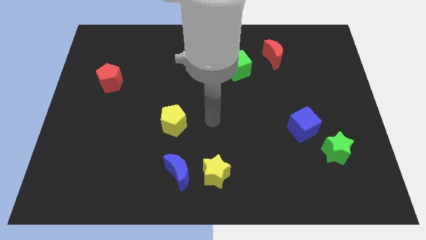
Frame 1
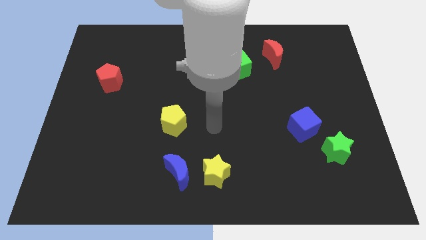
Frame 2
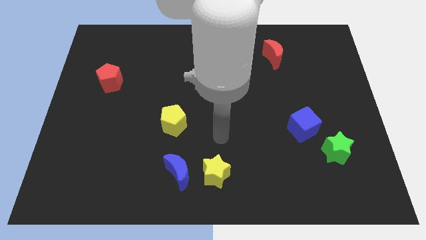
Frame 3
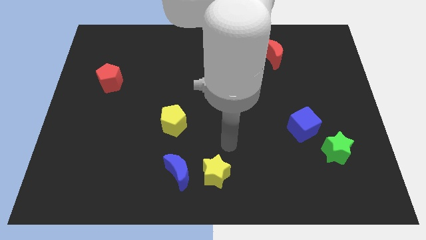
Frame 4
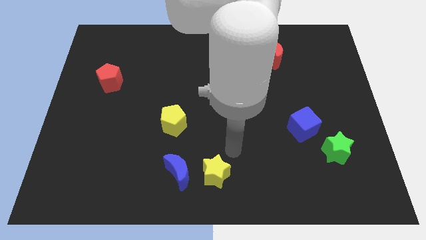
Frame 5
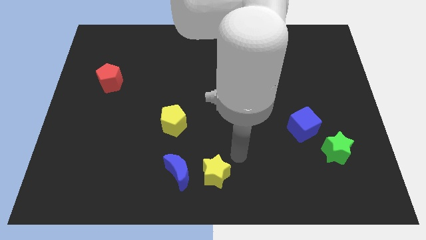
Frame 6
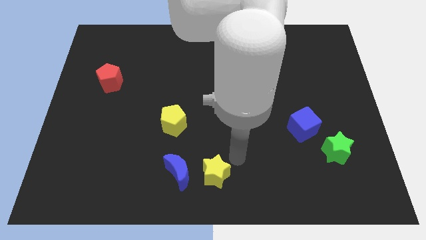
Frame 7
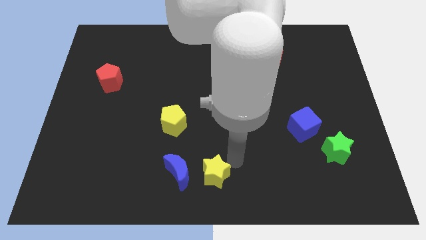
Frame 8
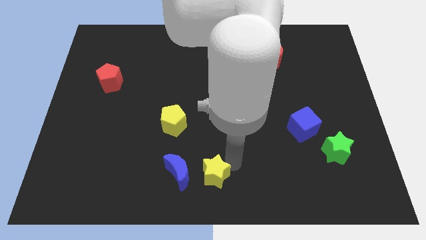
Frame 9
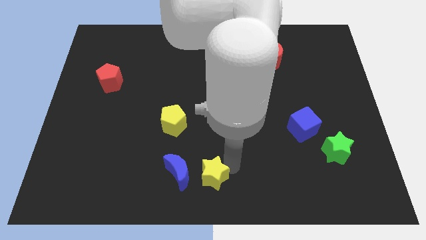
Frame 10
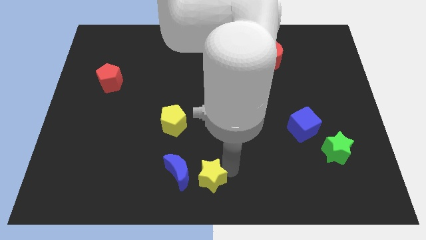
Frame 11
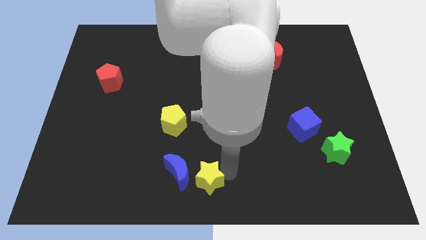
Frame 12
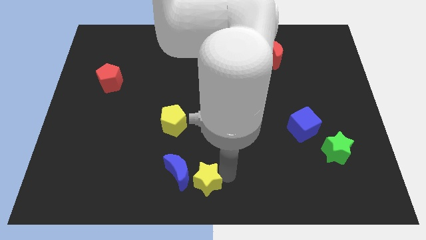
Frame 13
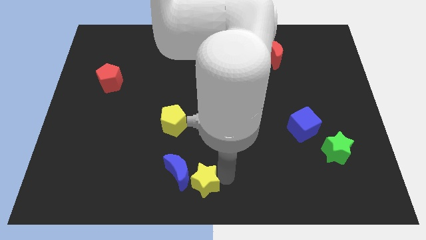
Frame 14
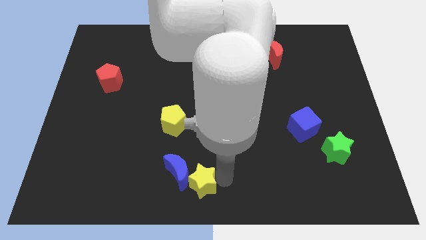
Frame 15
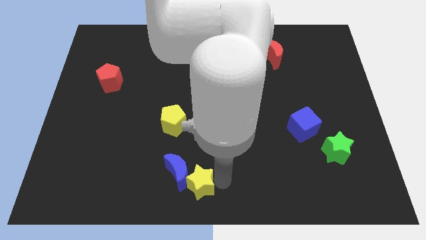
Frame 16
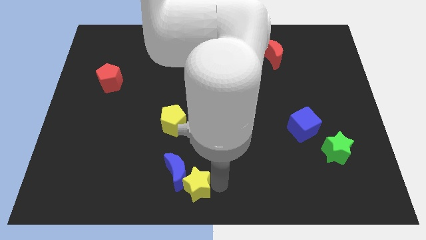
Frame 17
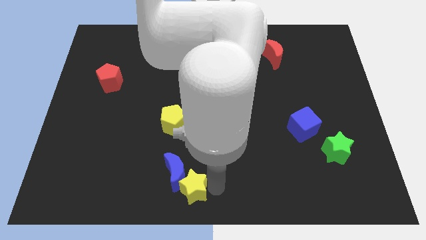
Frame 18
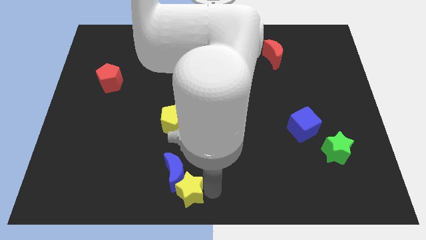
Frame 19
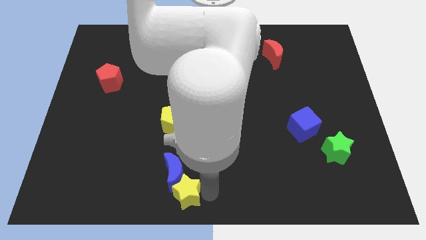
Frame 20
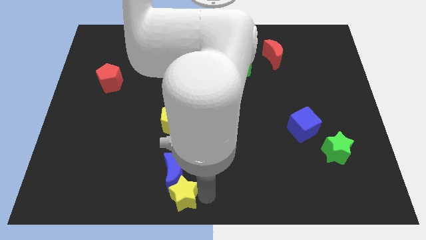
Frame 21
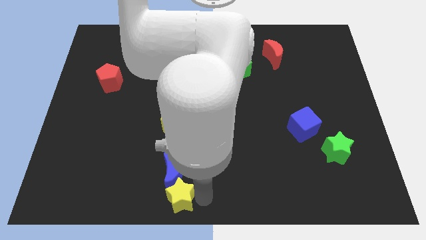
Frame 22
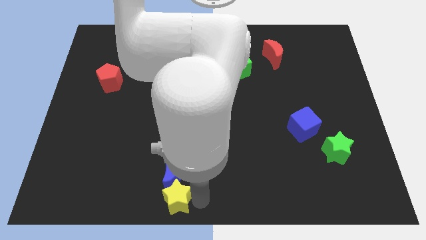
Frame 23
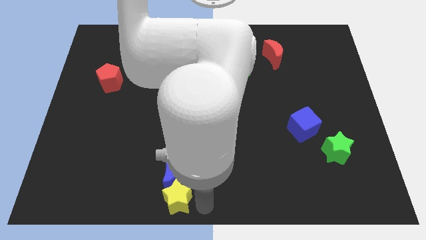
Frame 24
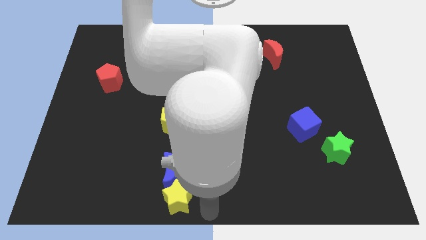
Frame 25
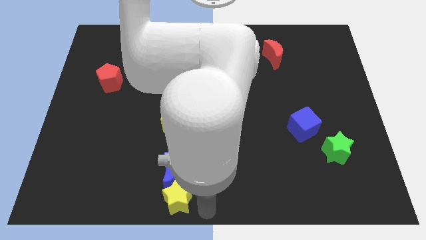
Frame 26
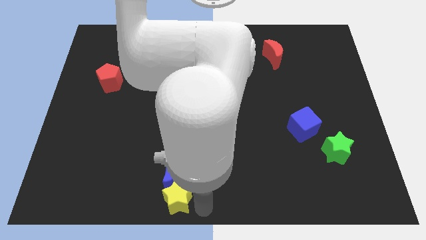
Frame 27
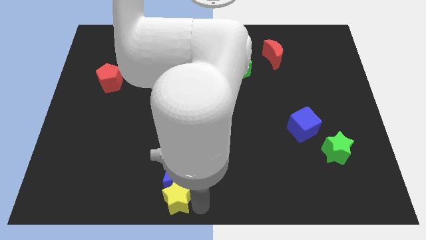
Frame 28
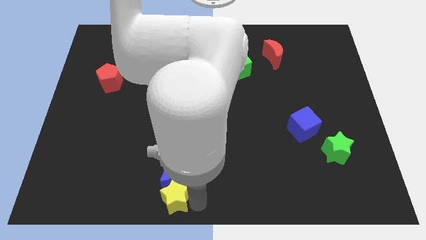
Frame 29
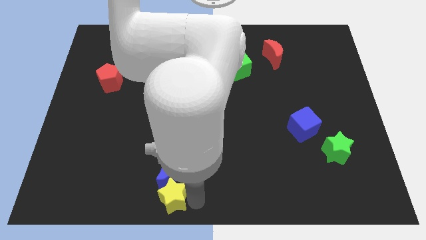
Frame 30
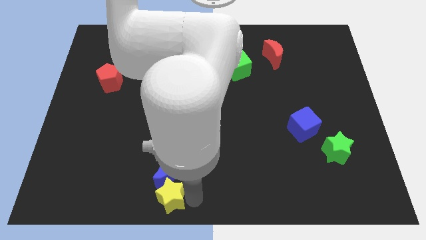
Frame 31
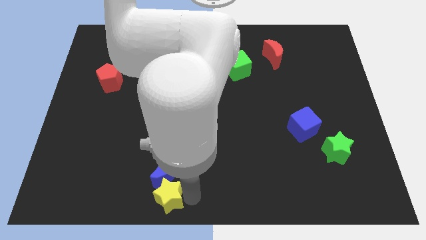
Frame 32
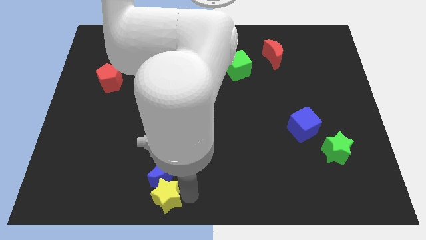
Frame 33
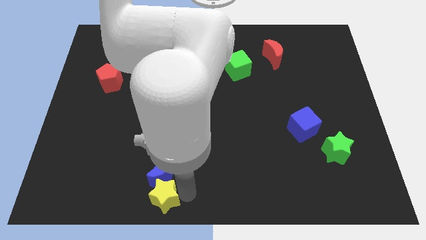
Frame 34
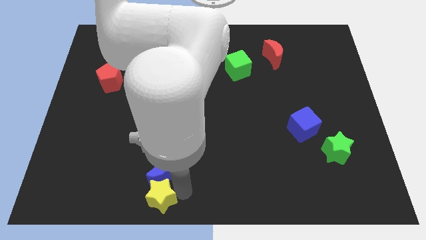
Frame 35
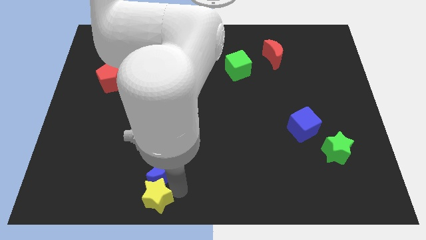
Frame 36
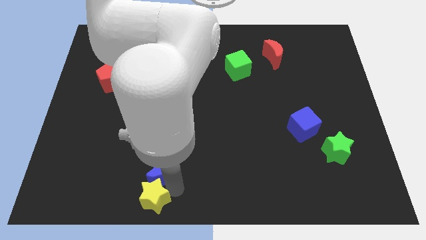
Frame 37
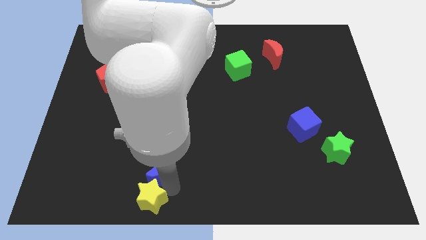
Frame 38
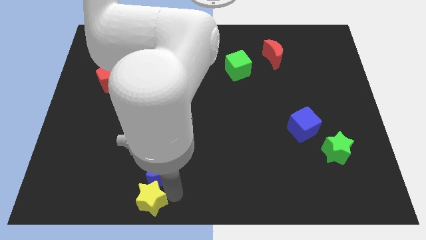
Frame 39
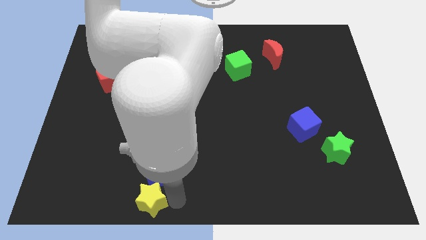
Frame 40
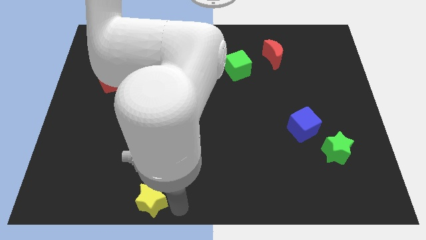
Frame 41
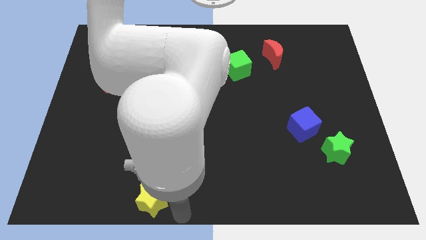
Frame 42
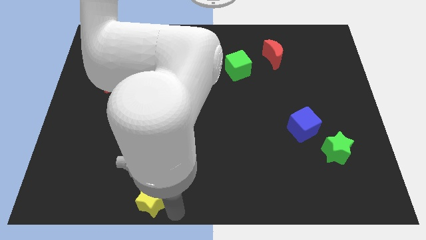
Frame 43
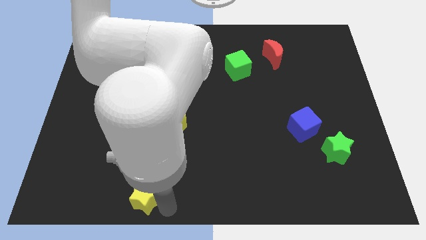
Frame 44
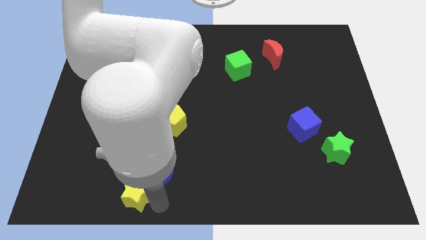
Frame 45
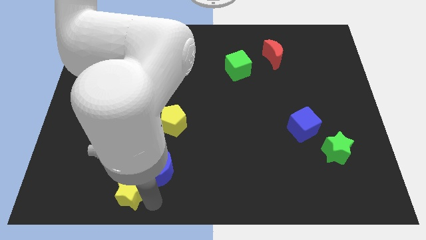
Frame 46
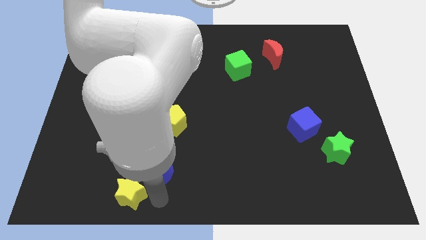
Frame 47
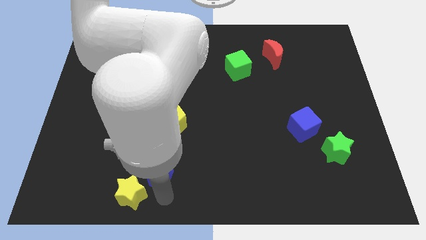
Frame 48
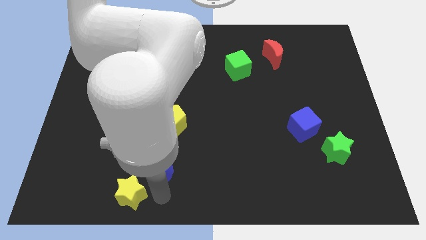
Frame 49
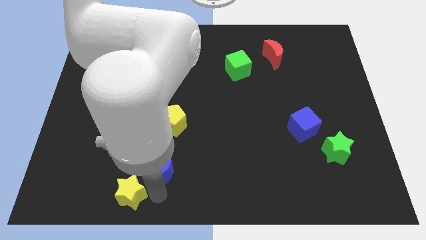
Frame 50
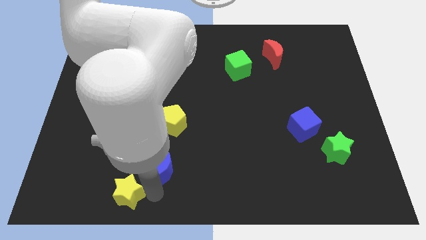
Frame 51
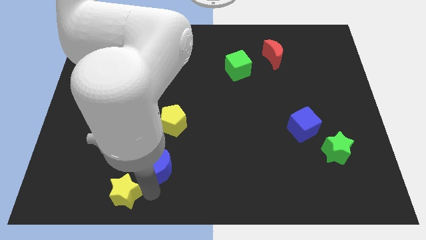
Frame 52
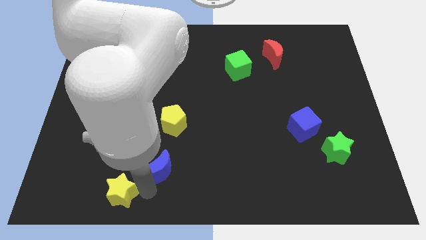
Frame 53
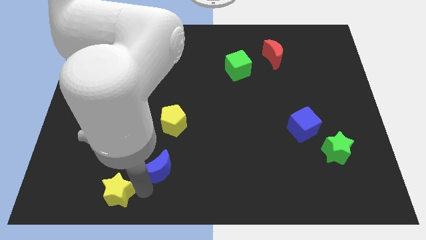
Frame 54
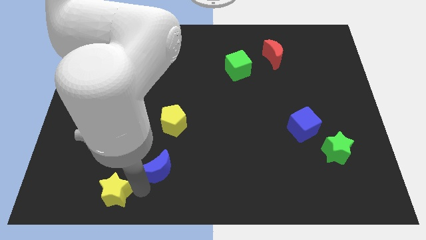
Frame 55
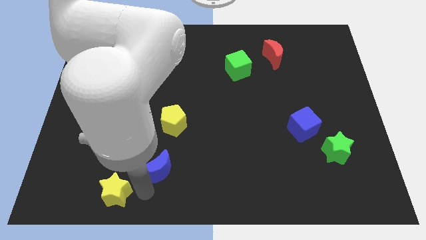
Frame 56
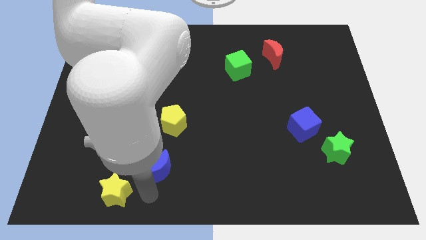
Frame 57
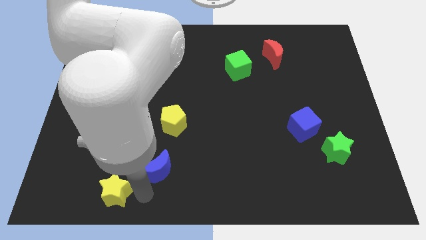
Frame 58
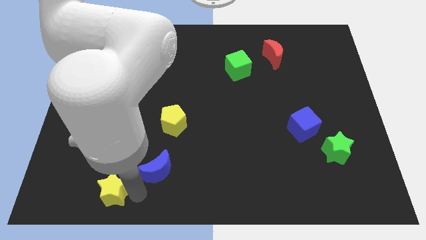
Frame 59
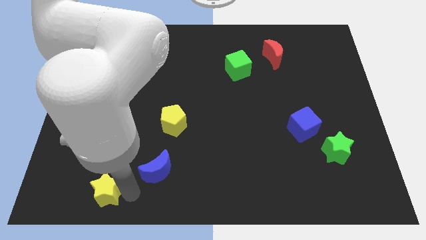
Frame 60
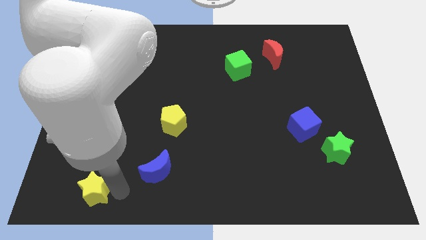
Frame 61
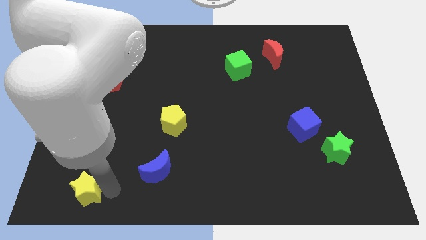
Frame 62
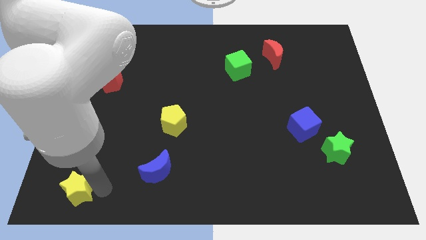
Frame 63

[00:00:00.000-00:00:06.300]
put the yellow star to the bottom left corner

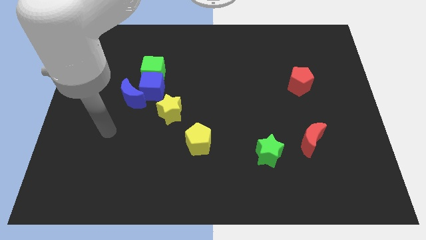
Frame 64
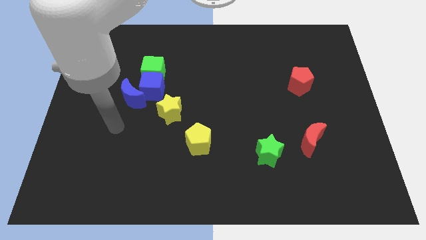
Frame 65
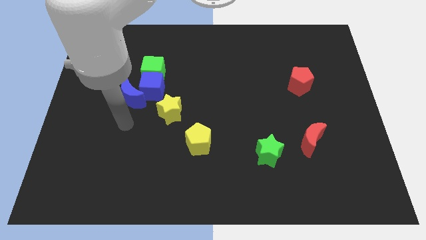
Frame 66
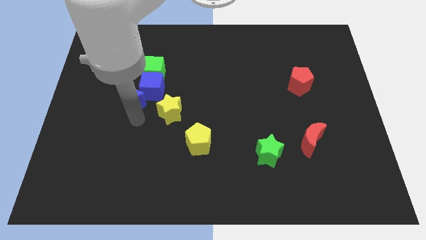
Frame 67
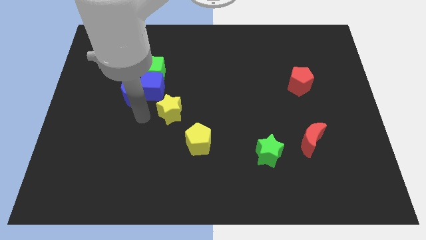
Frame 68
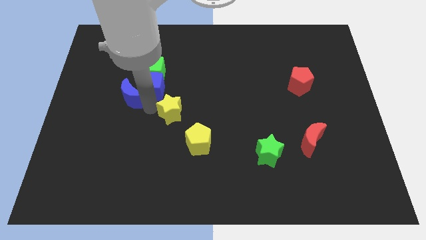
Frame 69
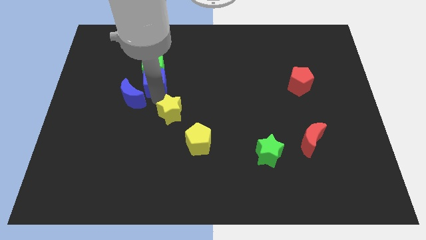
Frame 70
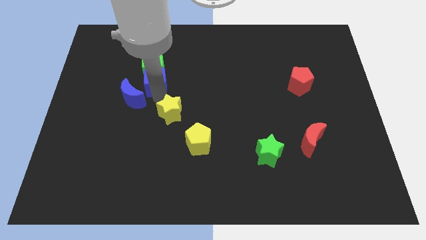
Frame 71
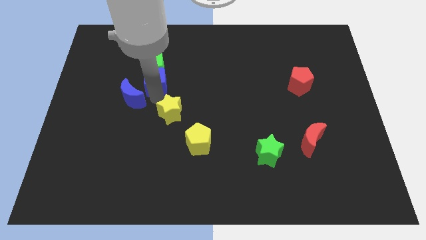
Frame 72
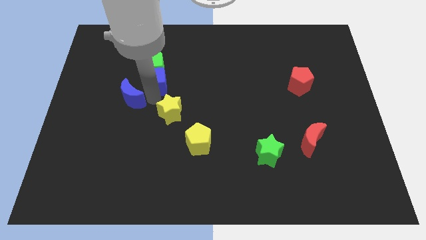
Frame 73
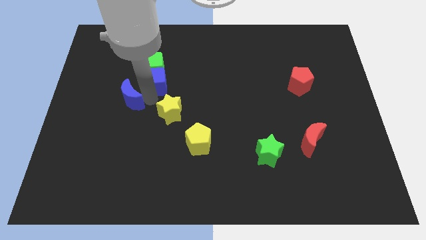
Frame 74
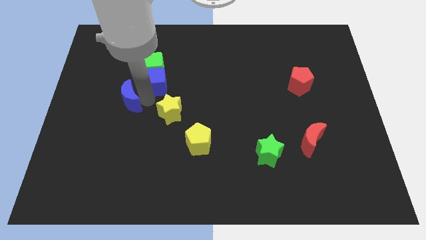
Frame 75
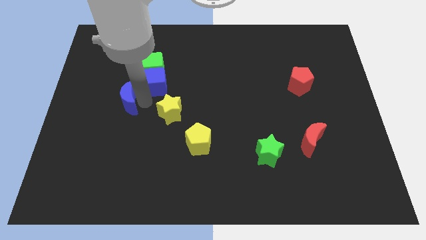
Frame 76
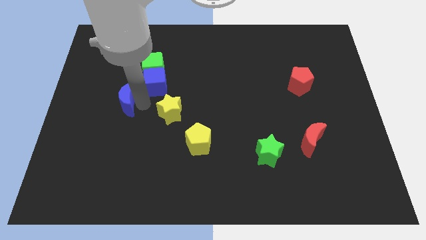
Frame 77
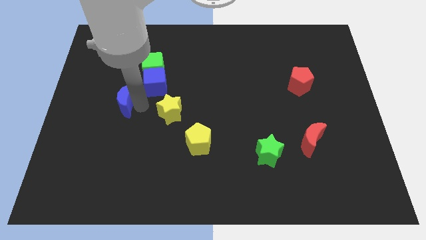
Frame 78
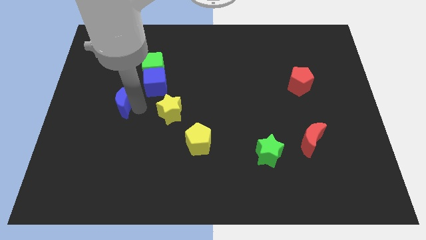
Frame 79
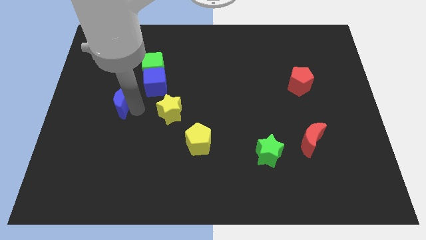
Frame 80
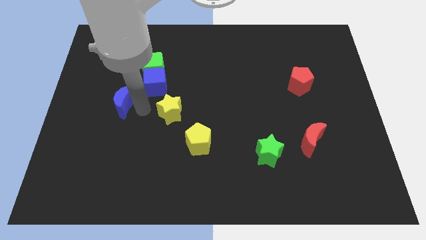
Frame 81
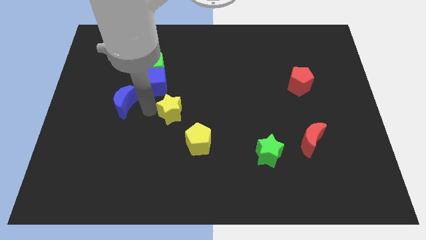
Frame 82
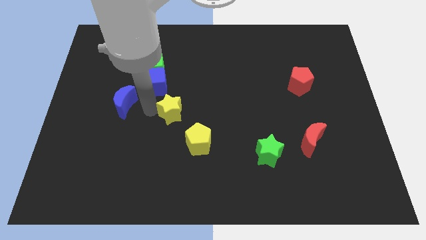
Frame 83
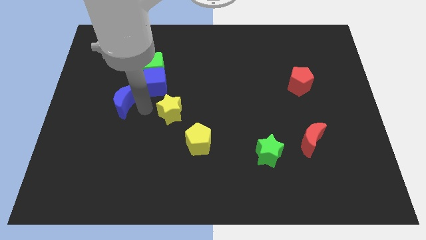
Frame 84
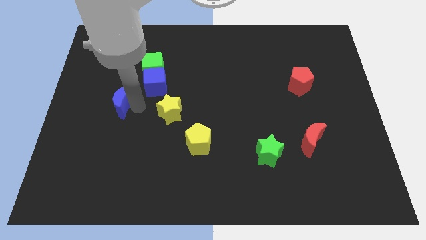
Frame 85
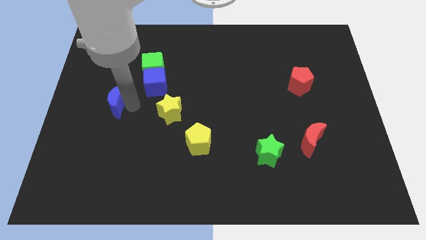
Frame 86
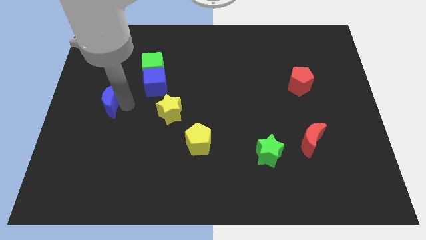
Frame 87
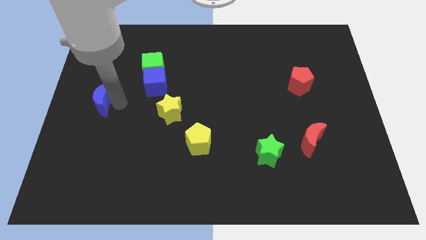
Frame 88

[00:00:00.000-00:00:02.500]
push the blue moon to the center left
